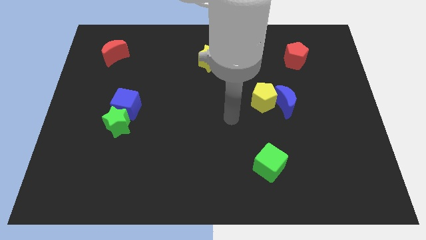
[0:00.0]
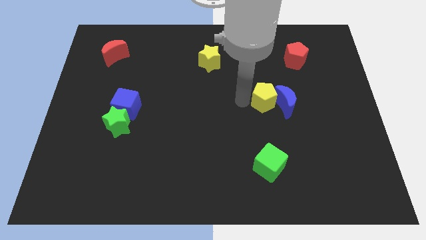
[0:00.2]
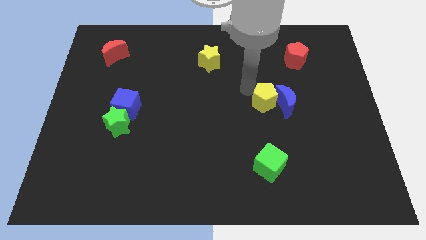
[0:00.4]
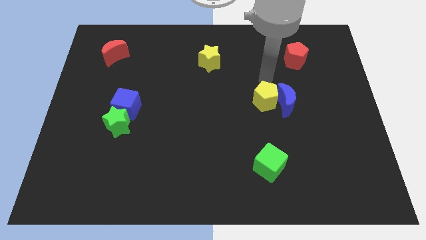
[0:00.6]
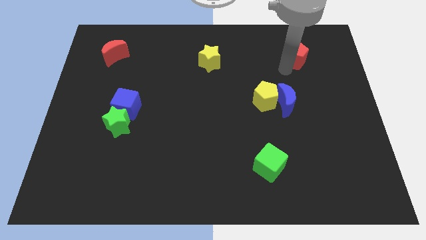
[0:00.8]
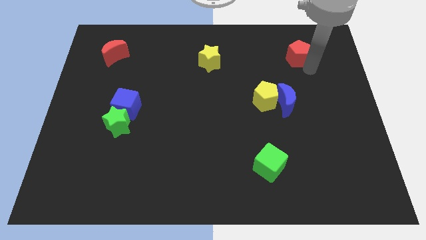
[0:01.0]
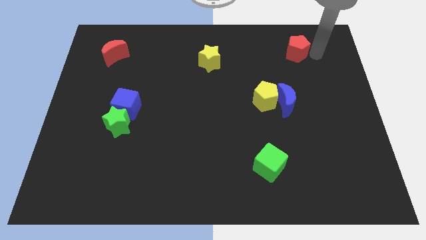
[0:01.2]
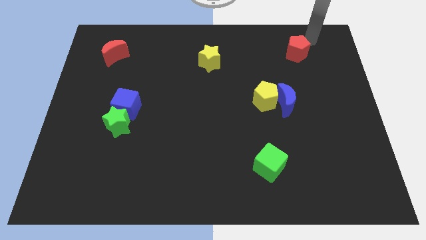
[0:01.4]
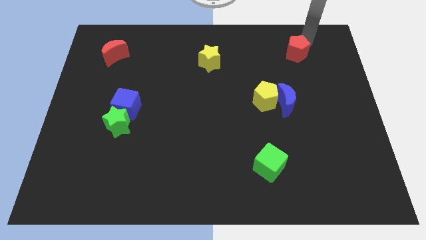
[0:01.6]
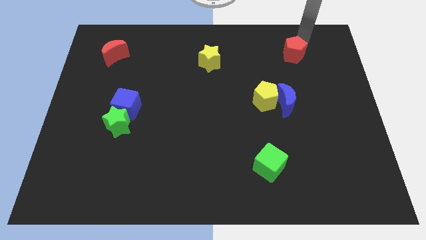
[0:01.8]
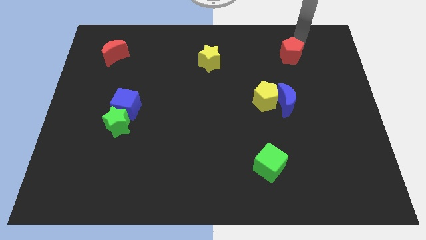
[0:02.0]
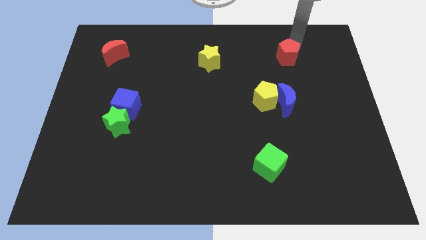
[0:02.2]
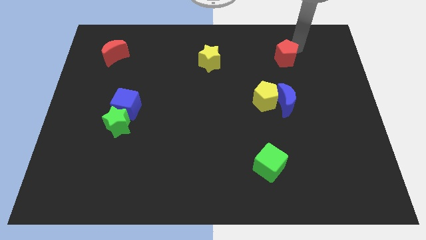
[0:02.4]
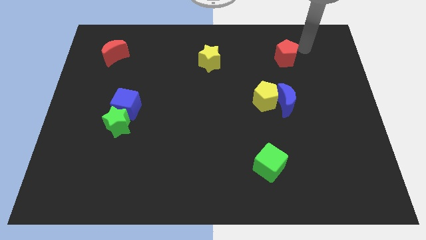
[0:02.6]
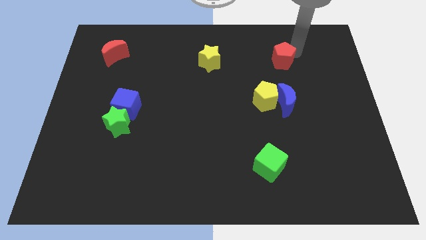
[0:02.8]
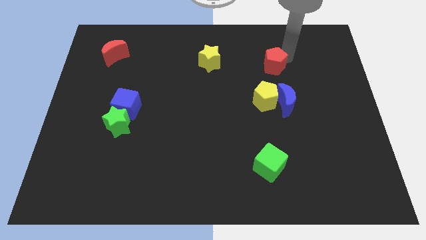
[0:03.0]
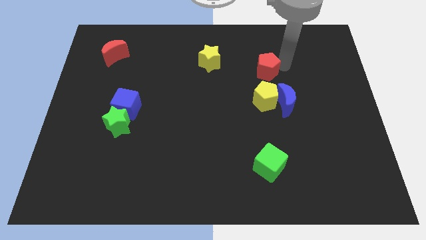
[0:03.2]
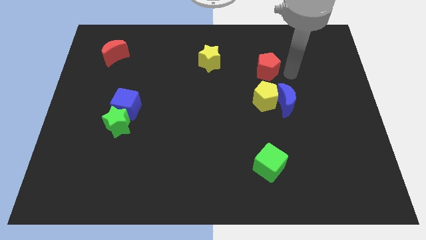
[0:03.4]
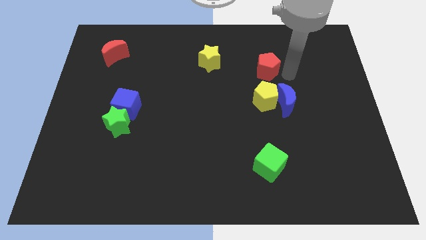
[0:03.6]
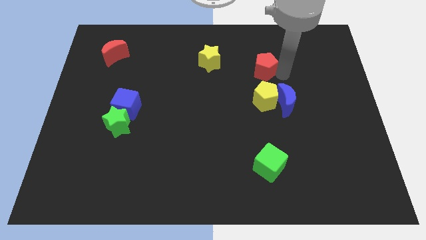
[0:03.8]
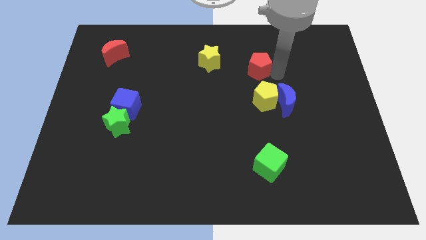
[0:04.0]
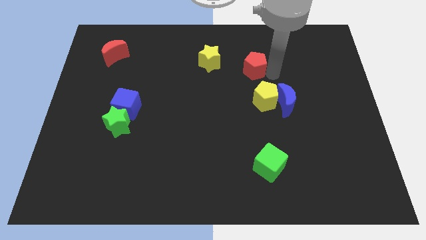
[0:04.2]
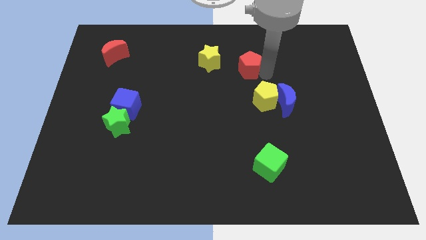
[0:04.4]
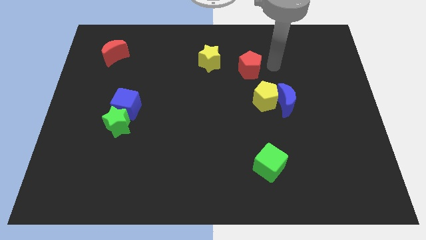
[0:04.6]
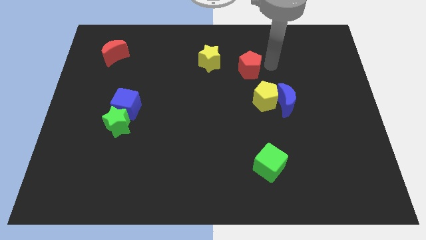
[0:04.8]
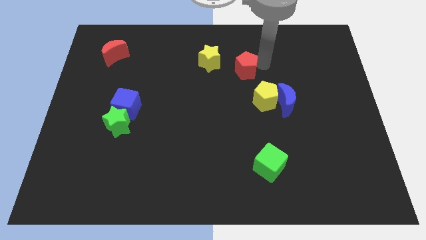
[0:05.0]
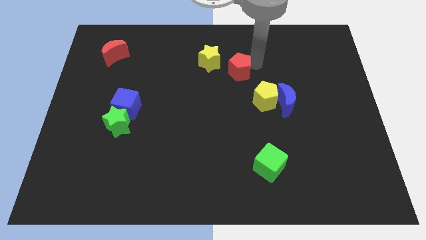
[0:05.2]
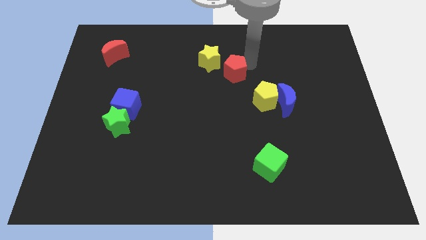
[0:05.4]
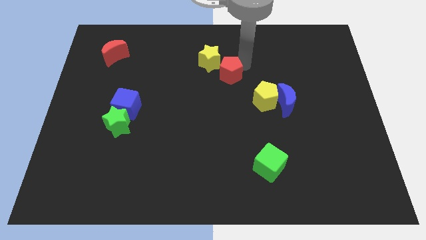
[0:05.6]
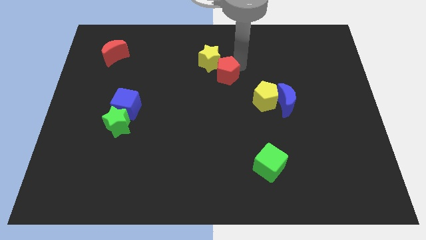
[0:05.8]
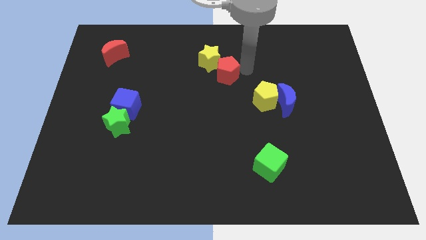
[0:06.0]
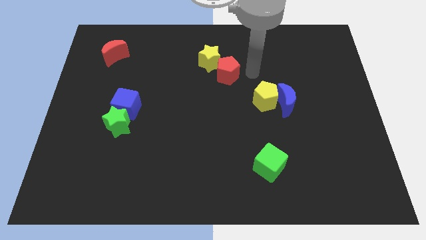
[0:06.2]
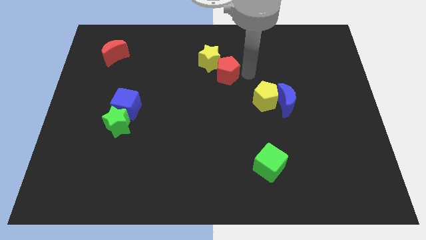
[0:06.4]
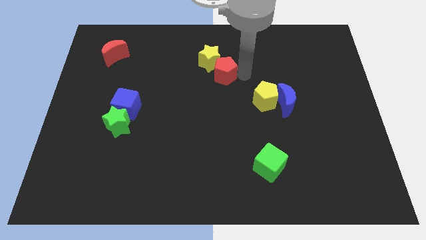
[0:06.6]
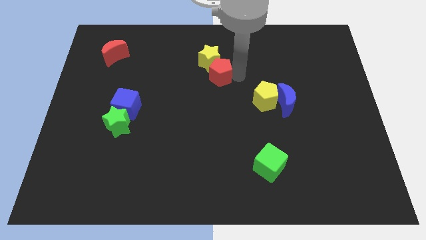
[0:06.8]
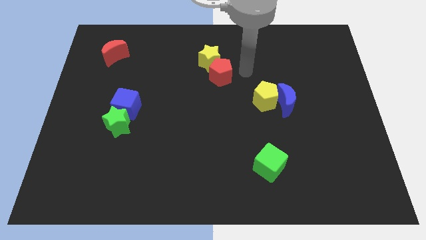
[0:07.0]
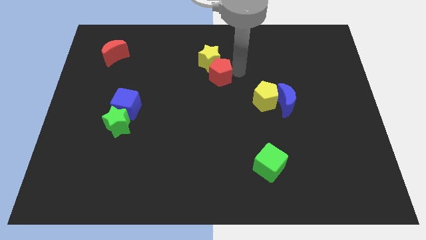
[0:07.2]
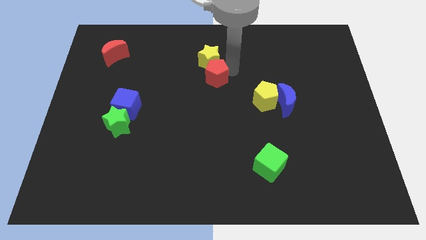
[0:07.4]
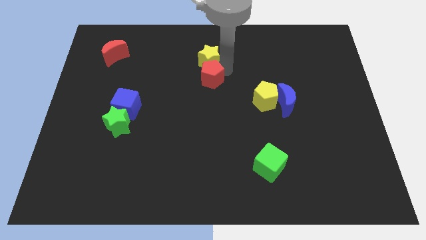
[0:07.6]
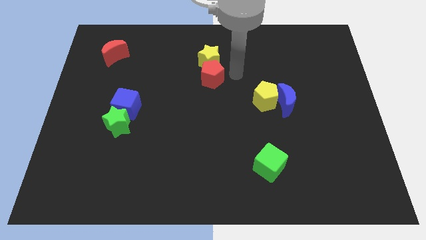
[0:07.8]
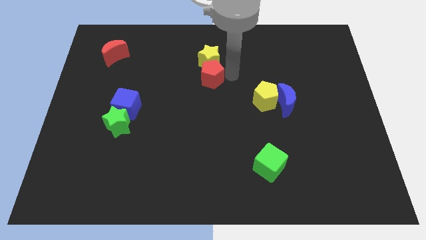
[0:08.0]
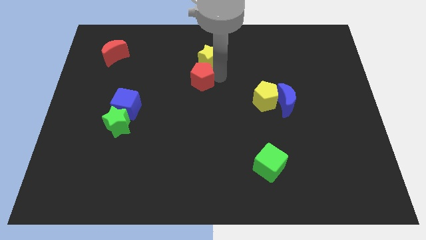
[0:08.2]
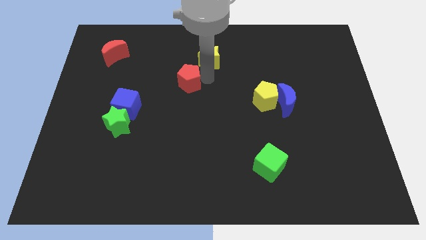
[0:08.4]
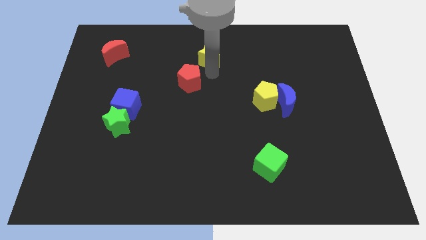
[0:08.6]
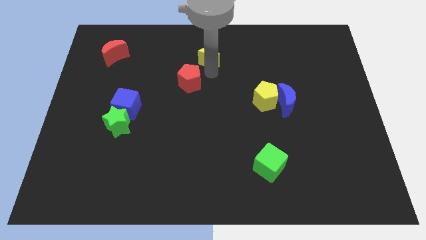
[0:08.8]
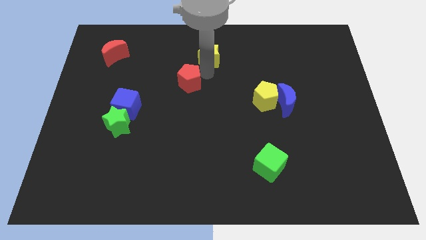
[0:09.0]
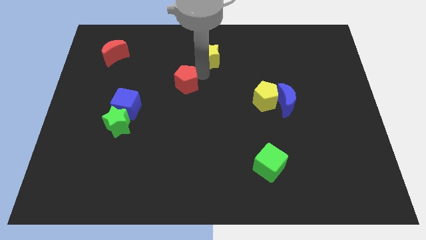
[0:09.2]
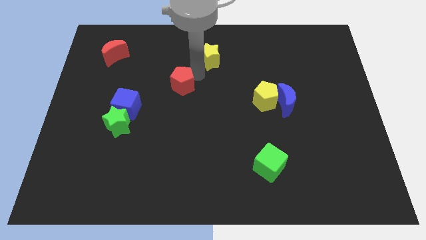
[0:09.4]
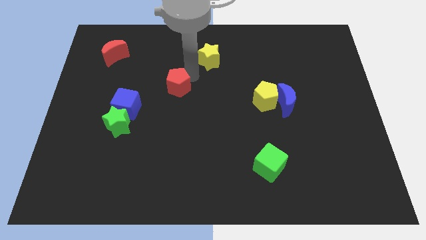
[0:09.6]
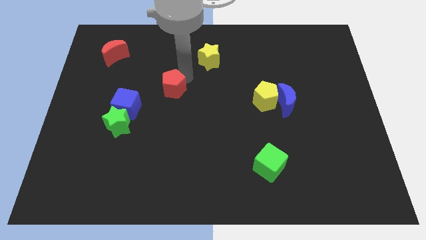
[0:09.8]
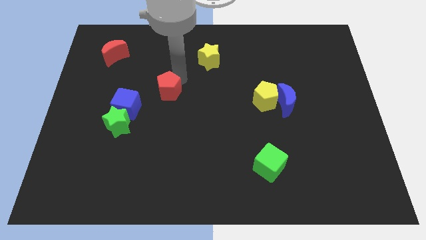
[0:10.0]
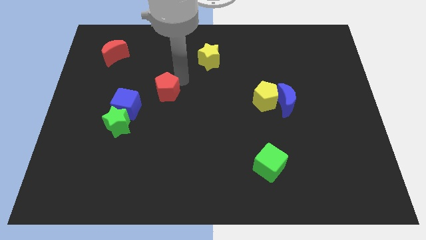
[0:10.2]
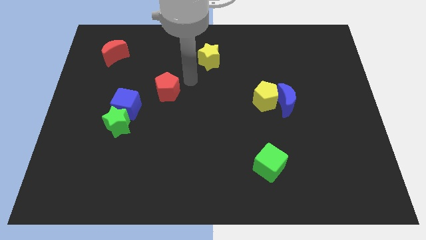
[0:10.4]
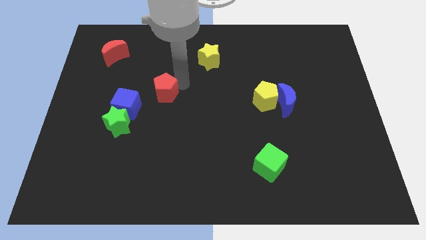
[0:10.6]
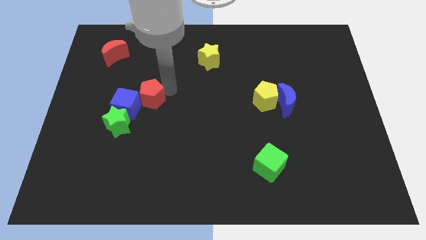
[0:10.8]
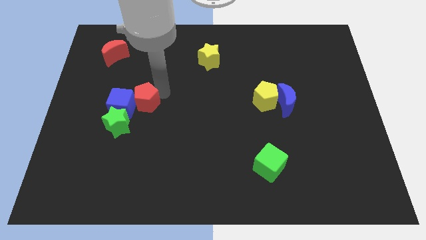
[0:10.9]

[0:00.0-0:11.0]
push the red pentagon next to the blue cube

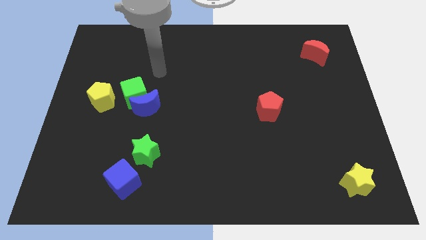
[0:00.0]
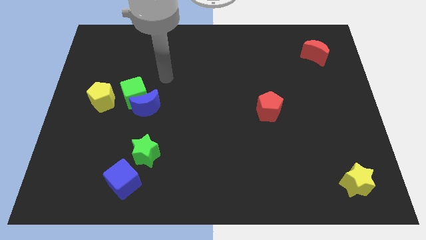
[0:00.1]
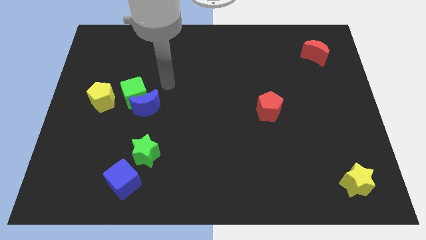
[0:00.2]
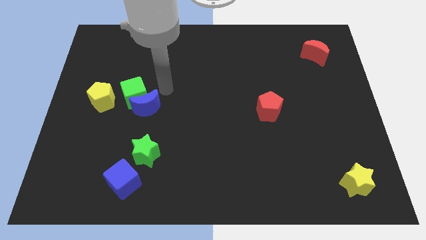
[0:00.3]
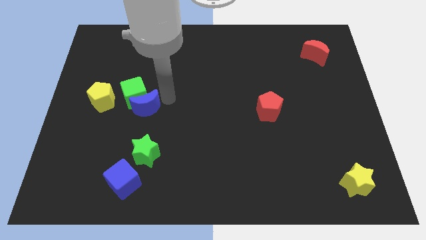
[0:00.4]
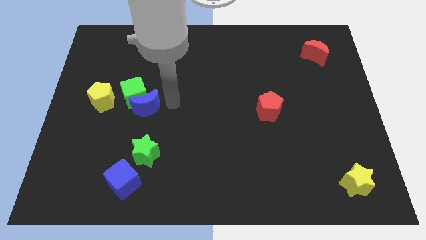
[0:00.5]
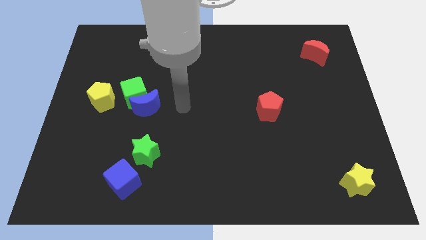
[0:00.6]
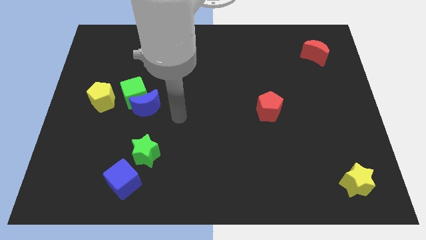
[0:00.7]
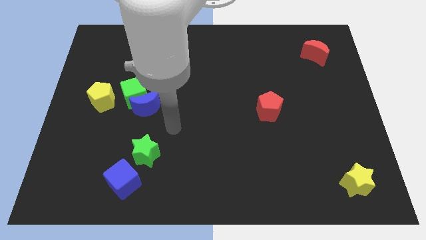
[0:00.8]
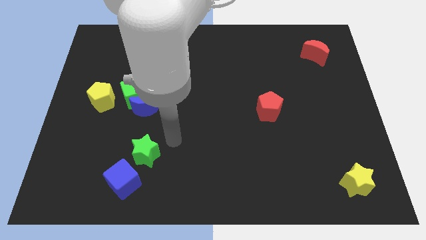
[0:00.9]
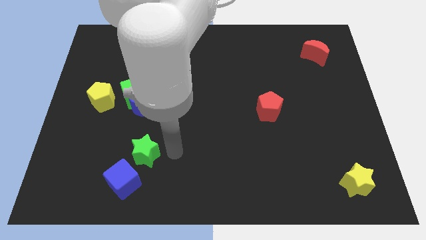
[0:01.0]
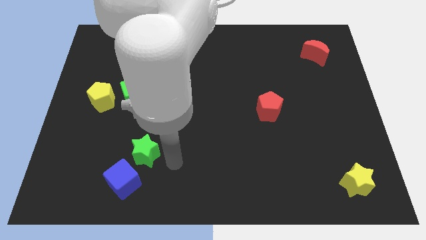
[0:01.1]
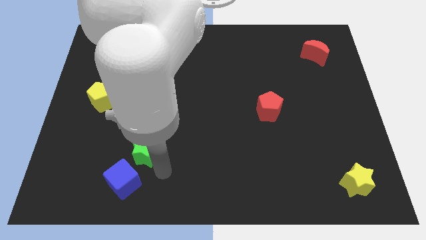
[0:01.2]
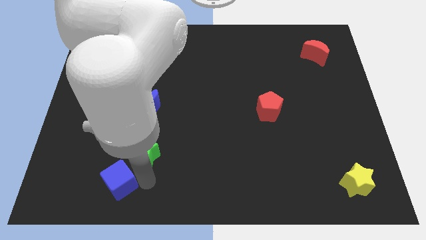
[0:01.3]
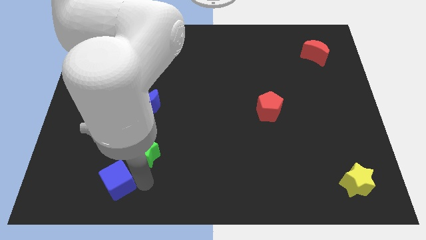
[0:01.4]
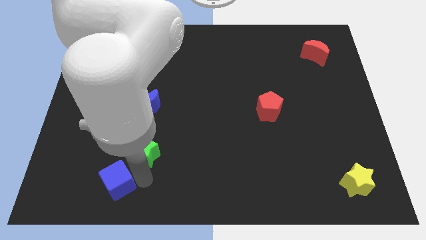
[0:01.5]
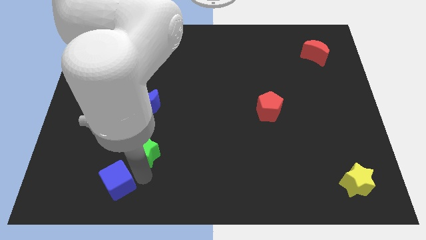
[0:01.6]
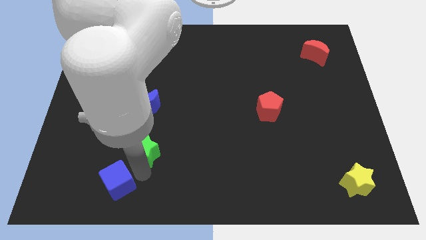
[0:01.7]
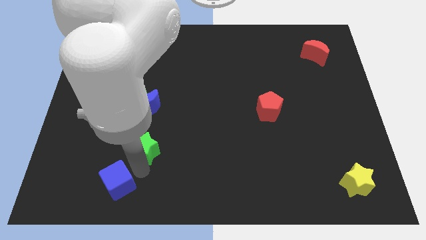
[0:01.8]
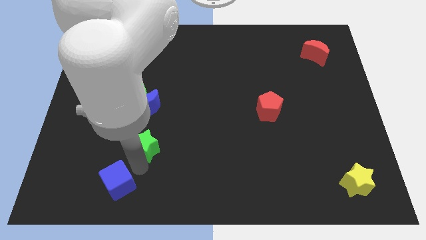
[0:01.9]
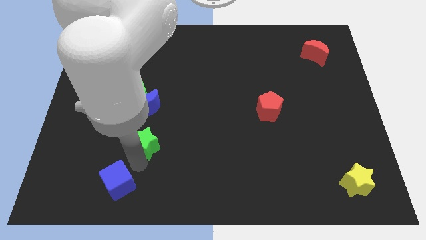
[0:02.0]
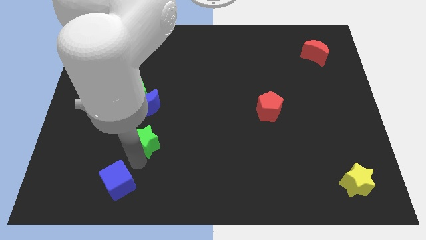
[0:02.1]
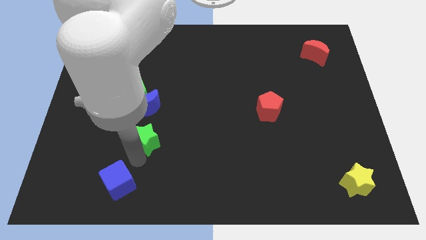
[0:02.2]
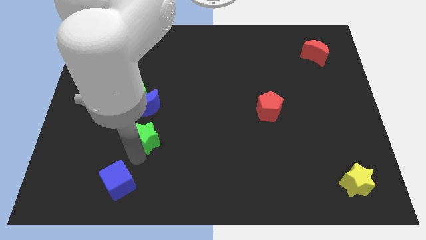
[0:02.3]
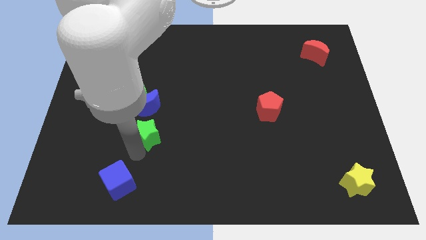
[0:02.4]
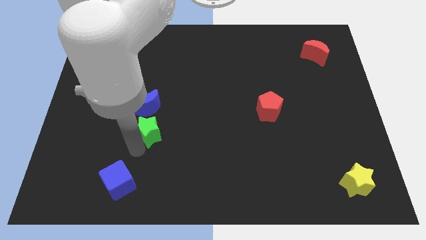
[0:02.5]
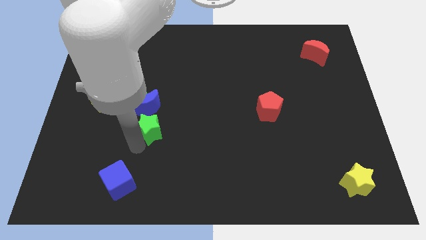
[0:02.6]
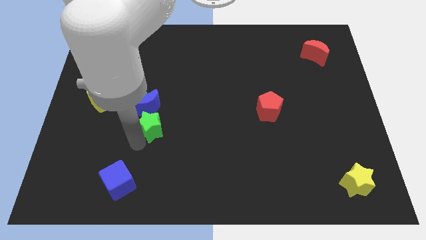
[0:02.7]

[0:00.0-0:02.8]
slide the green star next to the blue moon
